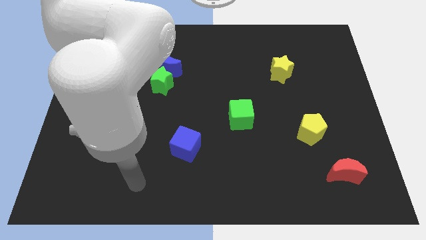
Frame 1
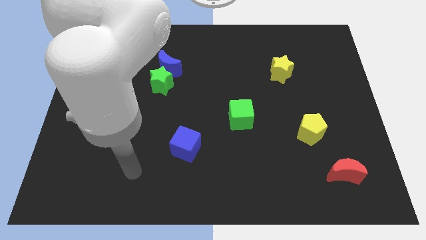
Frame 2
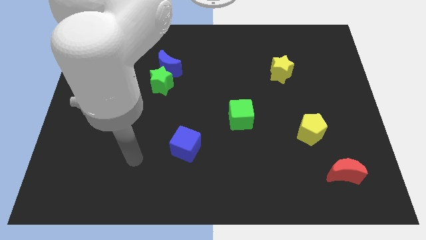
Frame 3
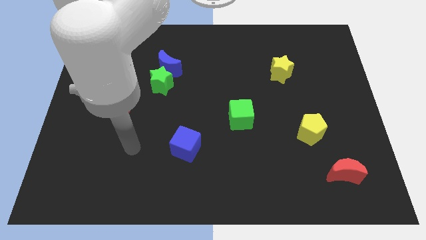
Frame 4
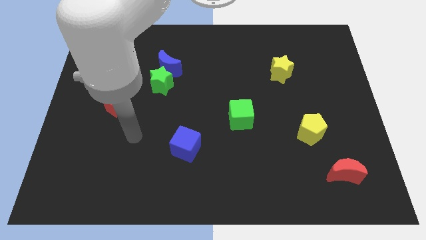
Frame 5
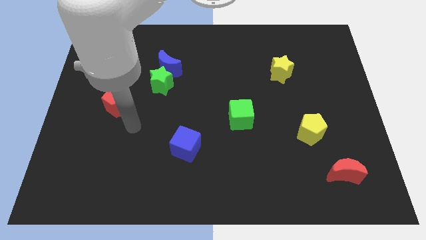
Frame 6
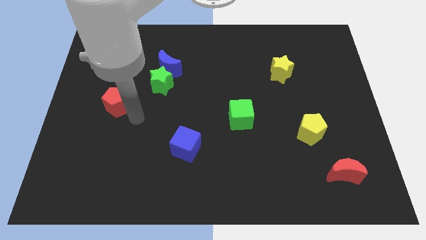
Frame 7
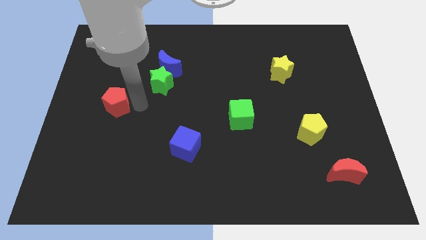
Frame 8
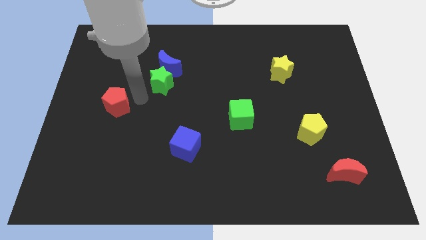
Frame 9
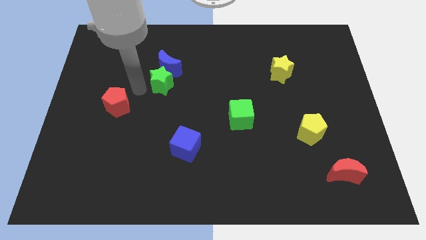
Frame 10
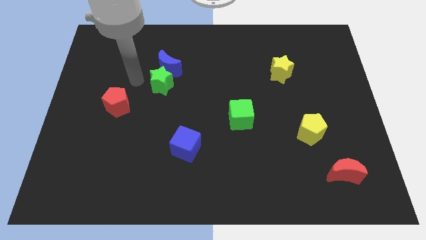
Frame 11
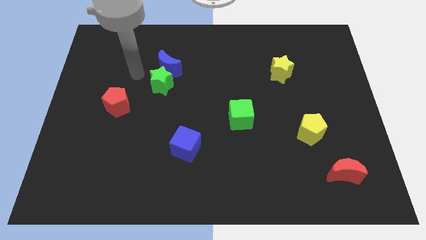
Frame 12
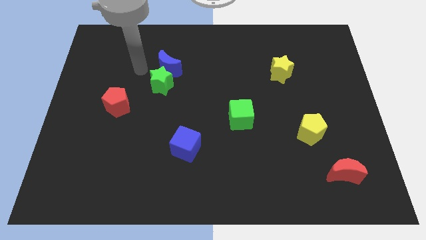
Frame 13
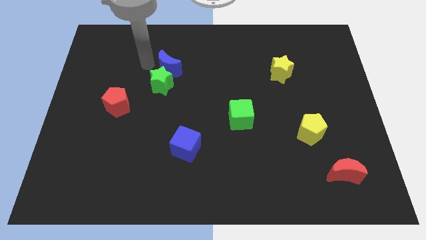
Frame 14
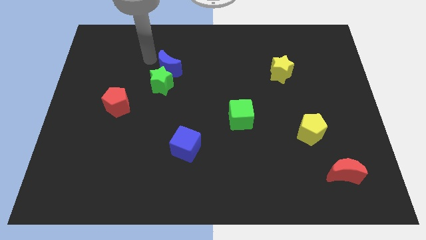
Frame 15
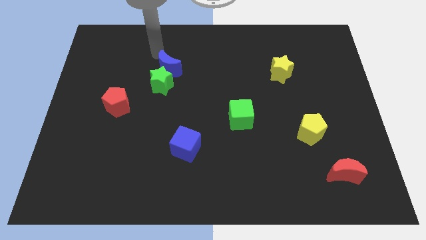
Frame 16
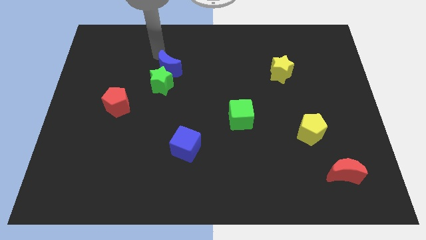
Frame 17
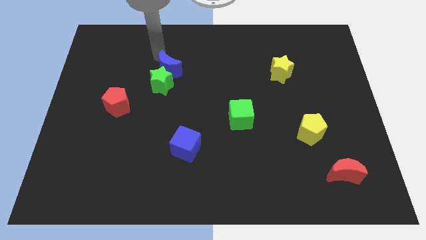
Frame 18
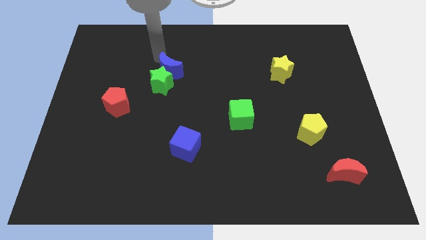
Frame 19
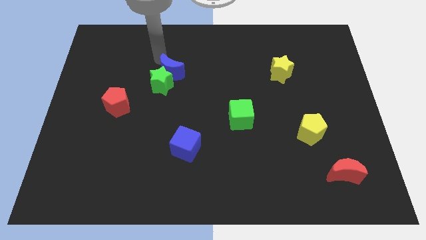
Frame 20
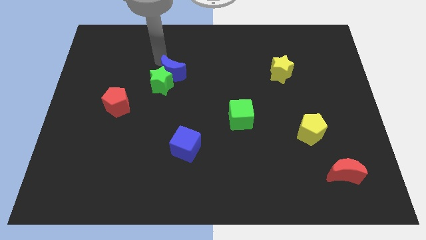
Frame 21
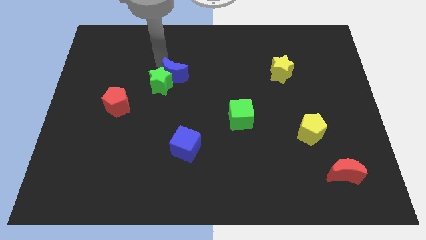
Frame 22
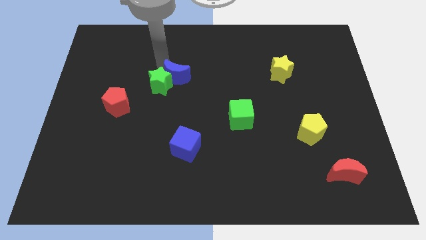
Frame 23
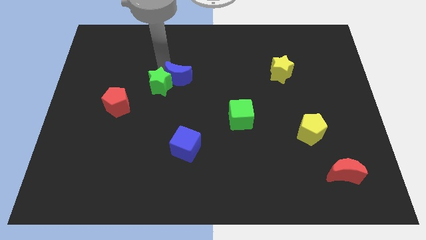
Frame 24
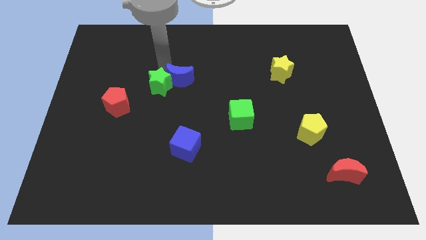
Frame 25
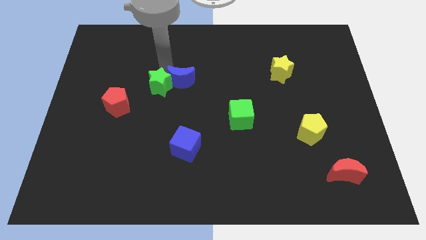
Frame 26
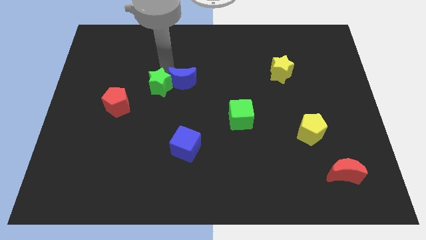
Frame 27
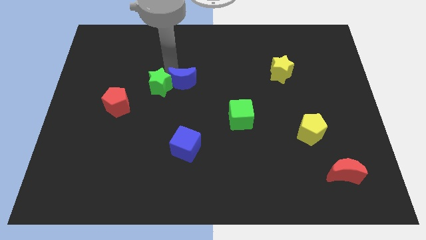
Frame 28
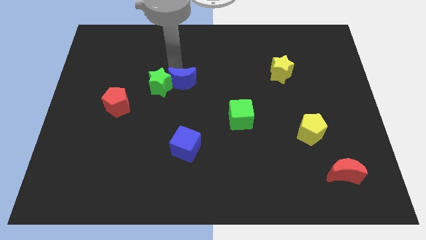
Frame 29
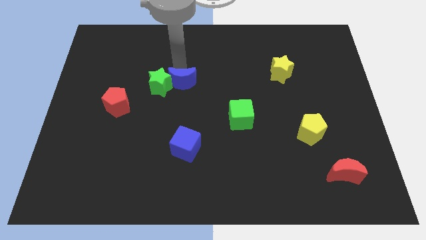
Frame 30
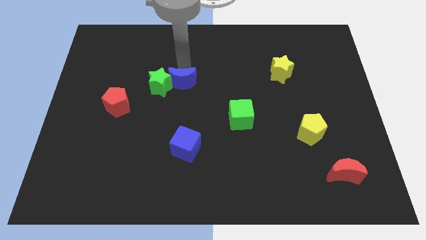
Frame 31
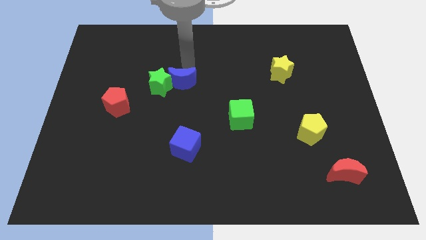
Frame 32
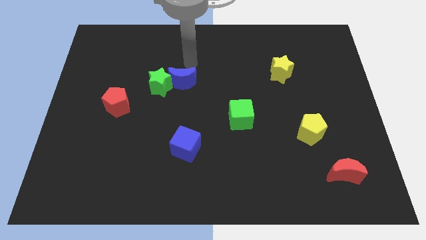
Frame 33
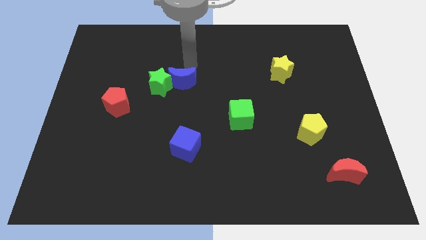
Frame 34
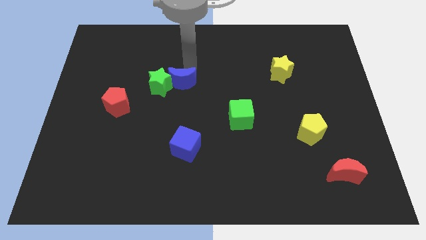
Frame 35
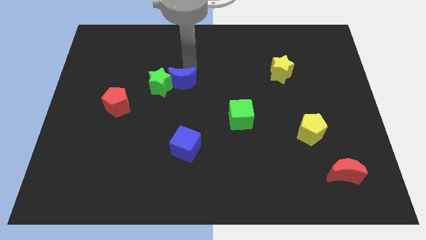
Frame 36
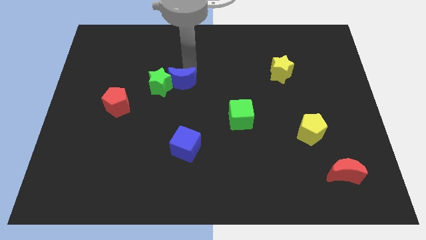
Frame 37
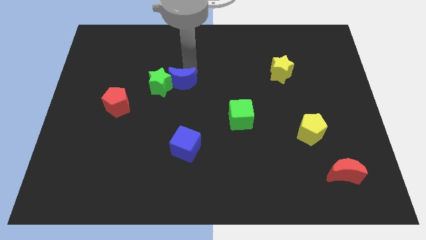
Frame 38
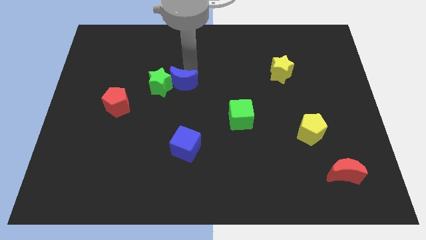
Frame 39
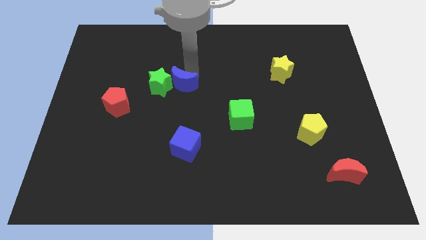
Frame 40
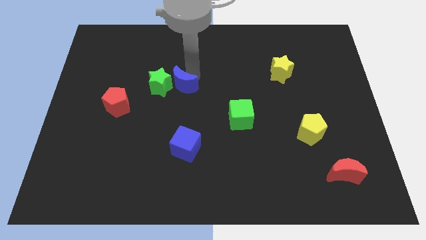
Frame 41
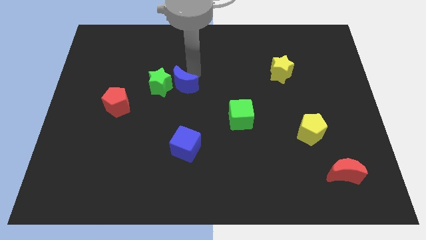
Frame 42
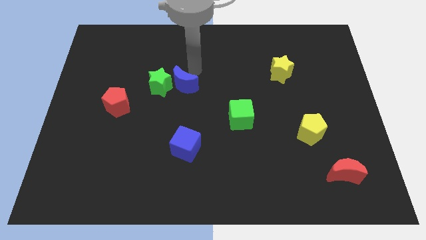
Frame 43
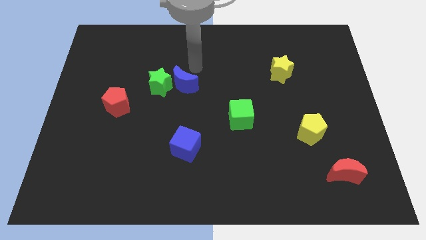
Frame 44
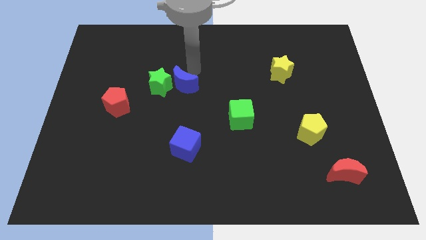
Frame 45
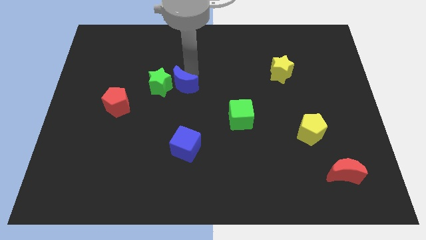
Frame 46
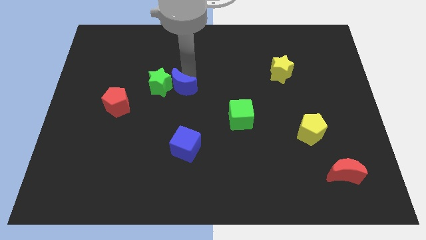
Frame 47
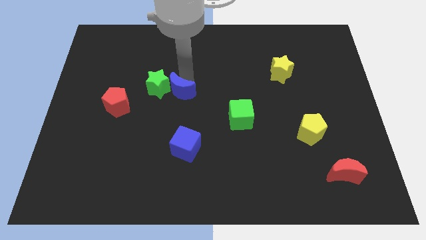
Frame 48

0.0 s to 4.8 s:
slightly slide the blue moon down

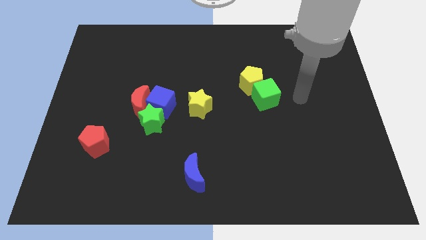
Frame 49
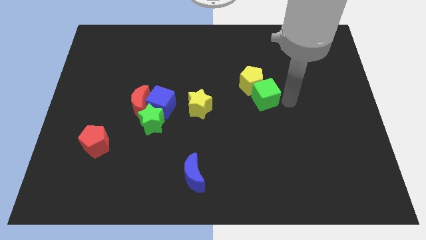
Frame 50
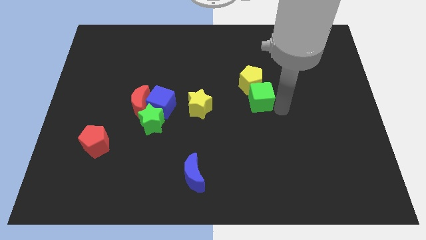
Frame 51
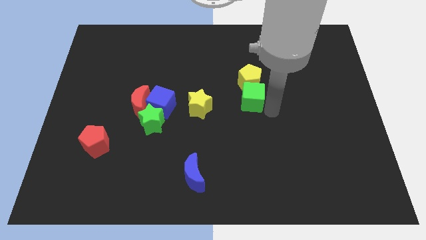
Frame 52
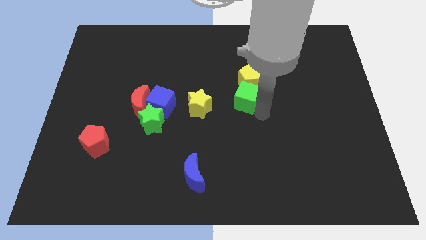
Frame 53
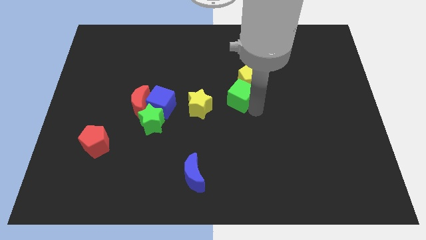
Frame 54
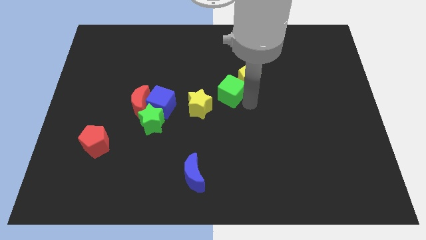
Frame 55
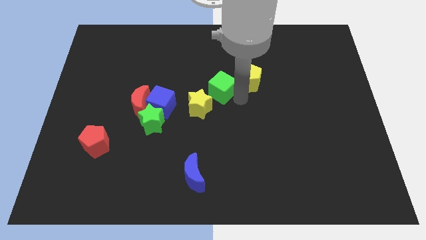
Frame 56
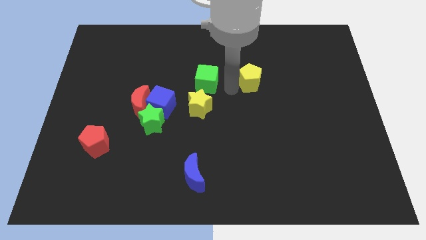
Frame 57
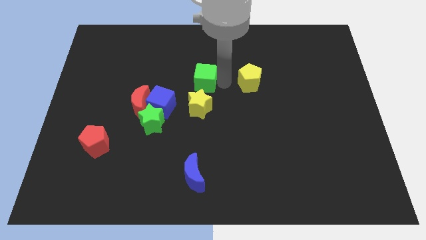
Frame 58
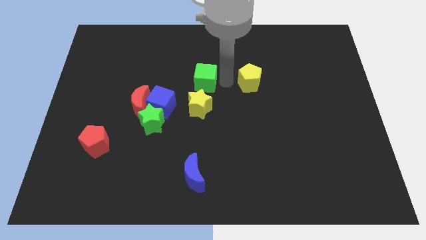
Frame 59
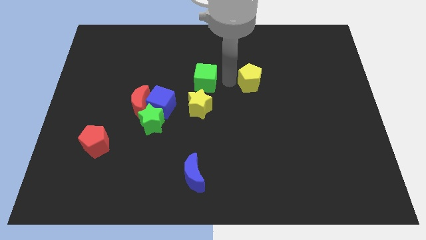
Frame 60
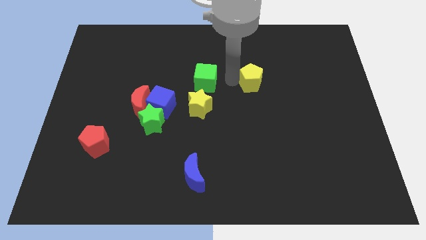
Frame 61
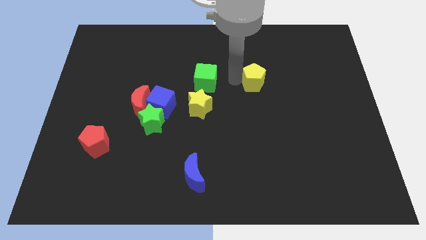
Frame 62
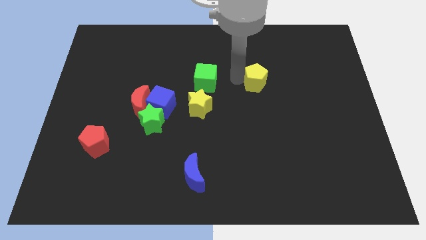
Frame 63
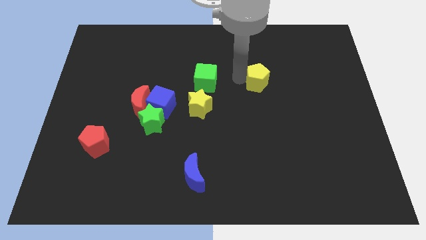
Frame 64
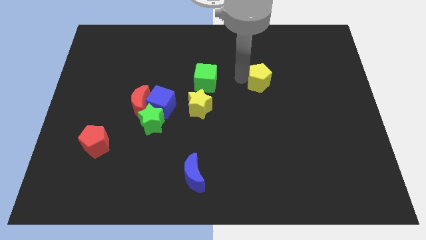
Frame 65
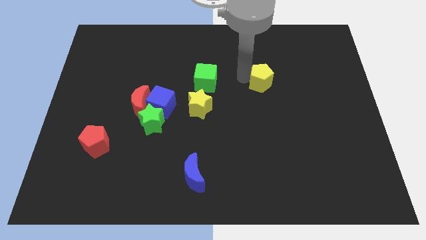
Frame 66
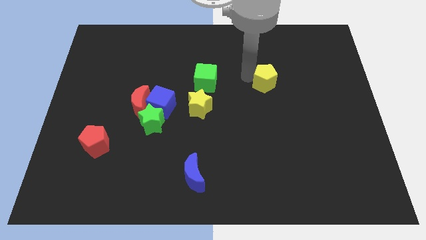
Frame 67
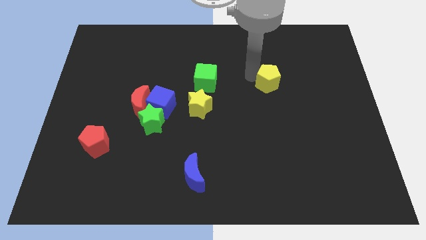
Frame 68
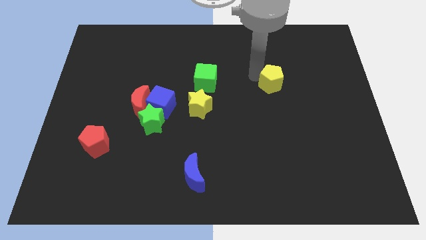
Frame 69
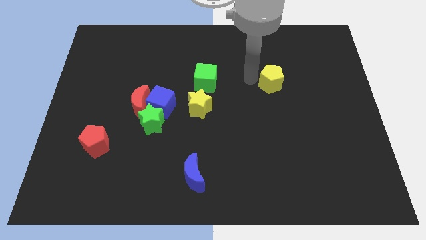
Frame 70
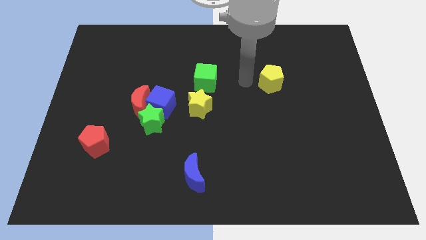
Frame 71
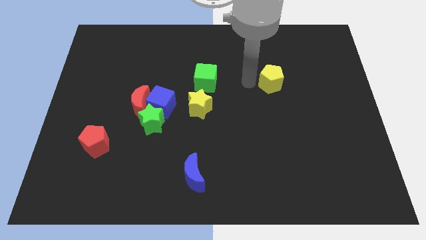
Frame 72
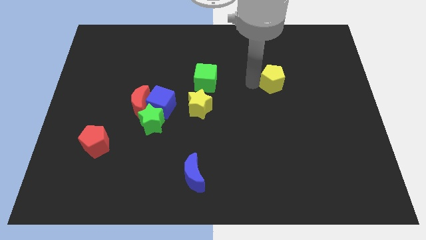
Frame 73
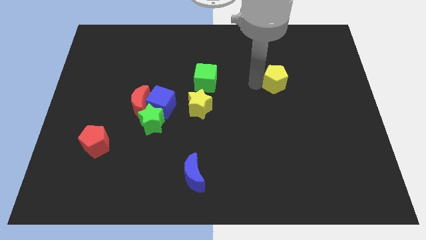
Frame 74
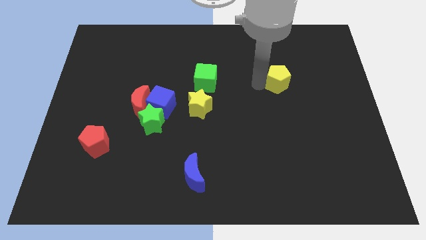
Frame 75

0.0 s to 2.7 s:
slide the yellow pentagon a little to the right
